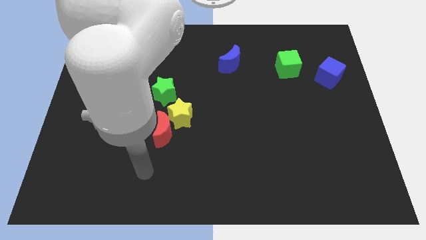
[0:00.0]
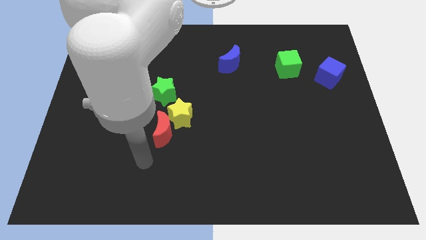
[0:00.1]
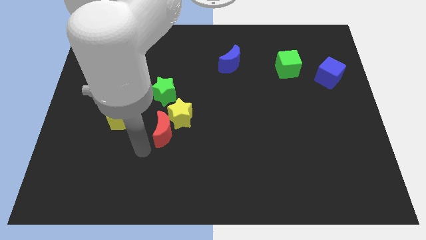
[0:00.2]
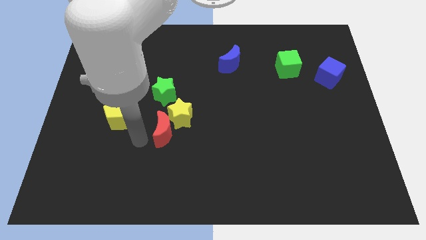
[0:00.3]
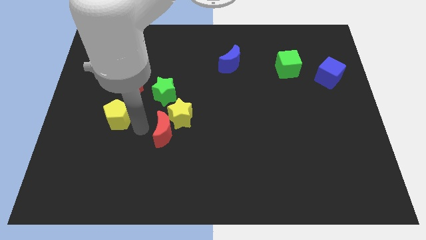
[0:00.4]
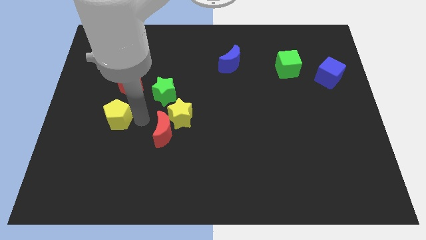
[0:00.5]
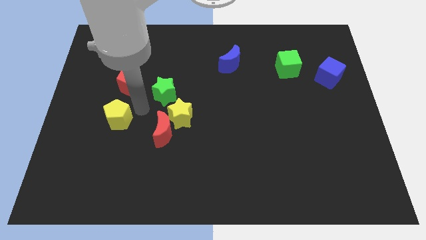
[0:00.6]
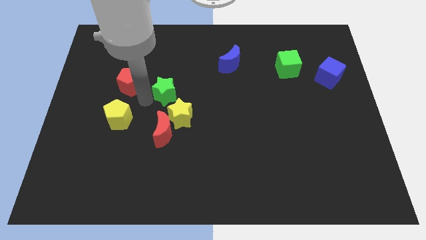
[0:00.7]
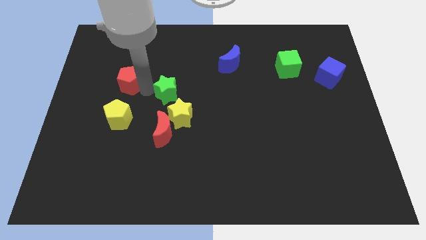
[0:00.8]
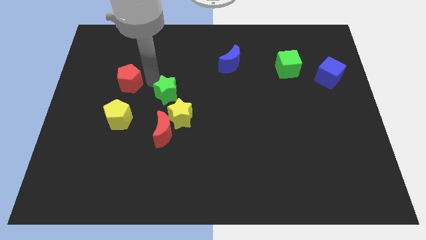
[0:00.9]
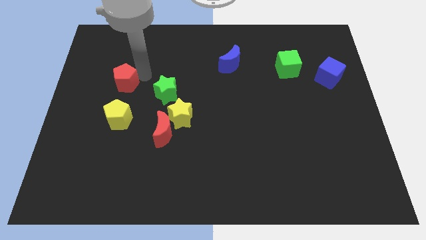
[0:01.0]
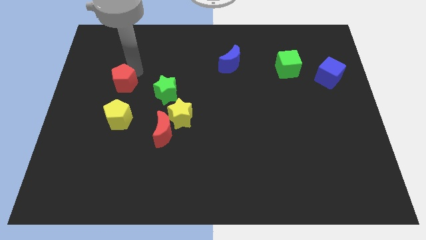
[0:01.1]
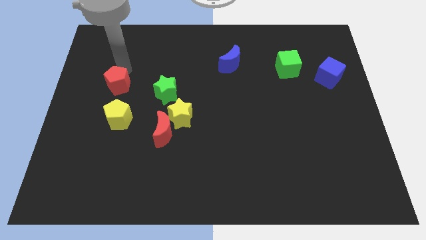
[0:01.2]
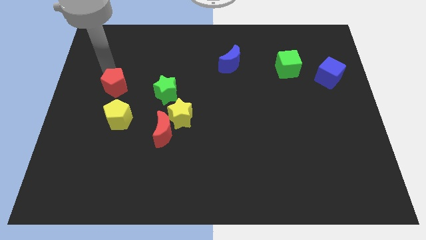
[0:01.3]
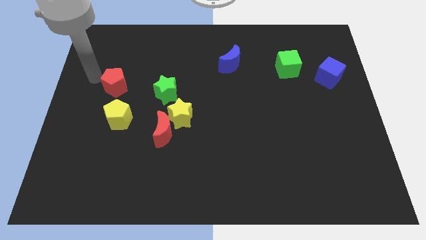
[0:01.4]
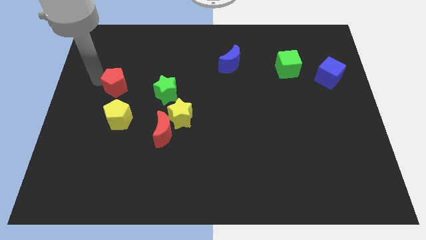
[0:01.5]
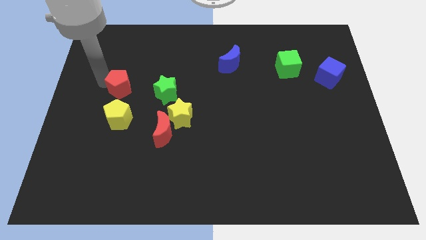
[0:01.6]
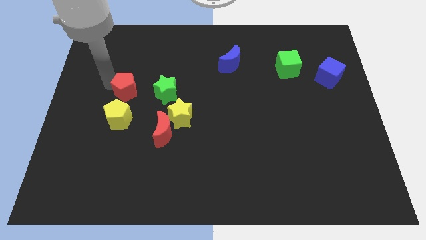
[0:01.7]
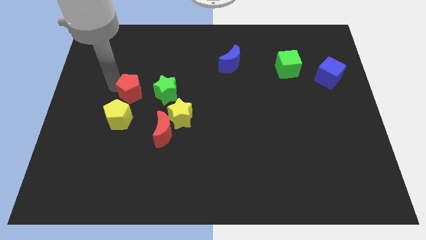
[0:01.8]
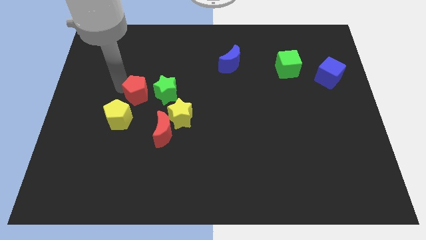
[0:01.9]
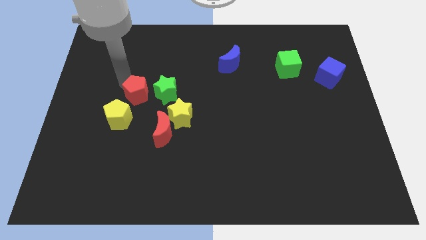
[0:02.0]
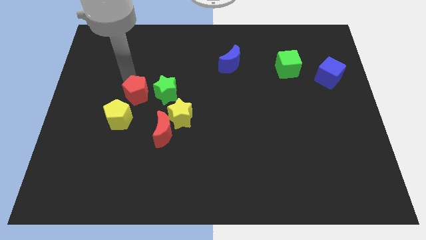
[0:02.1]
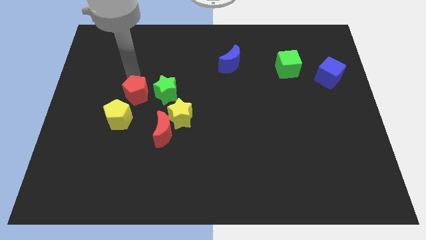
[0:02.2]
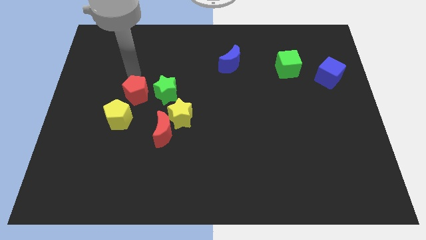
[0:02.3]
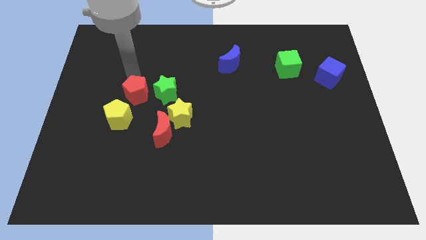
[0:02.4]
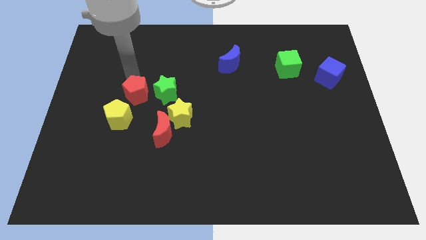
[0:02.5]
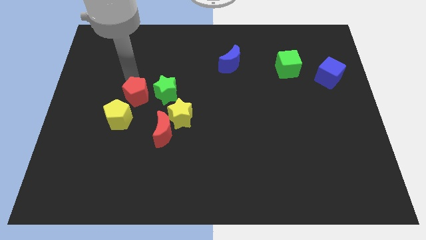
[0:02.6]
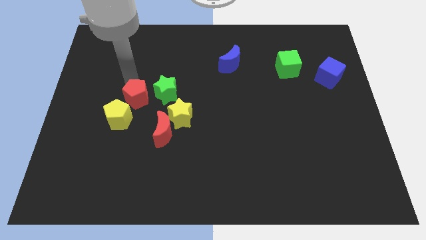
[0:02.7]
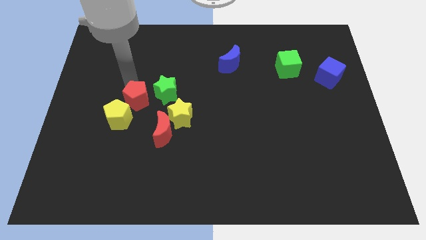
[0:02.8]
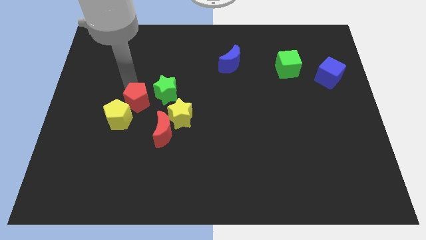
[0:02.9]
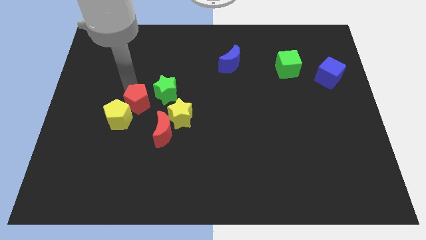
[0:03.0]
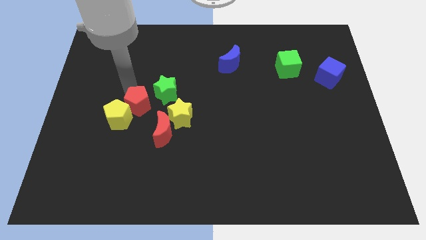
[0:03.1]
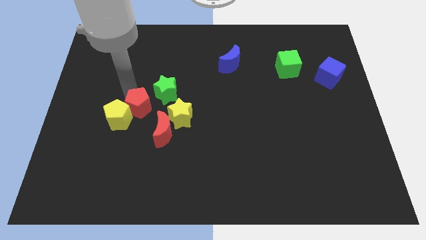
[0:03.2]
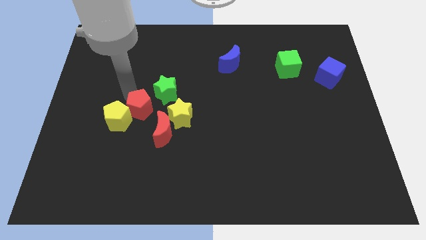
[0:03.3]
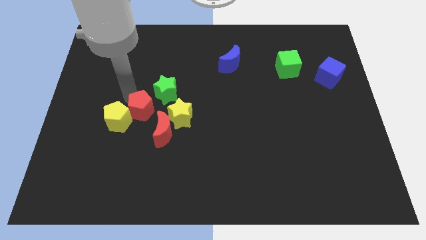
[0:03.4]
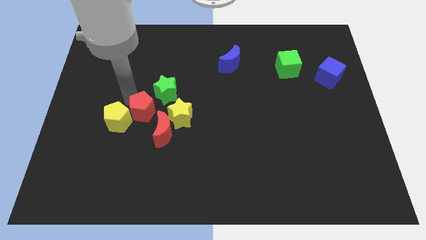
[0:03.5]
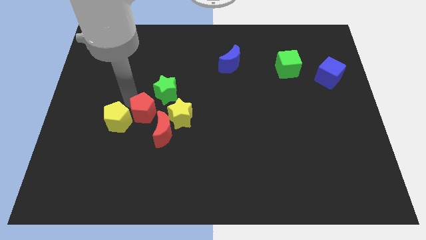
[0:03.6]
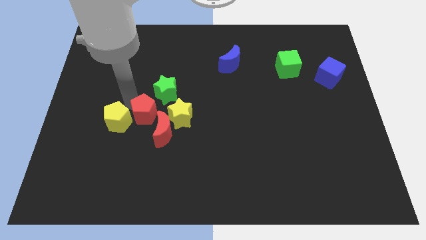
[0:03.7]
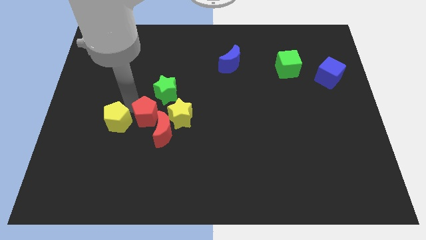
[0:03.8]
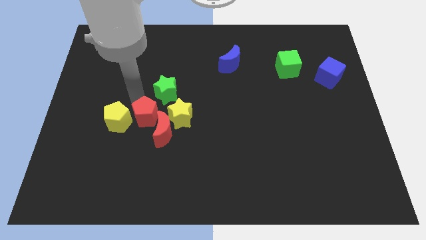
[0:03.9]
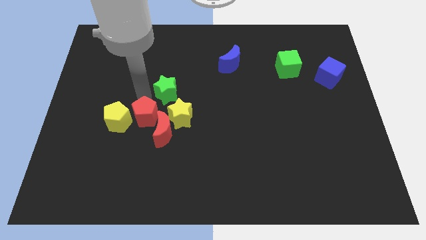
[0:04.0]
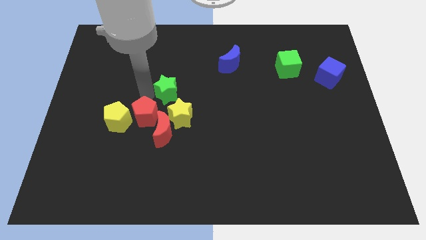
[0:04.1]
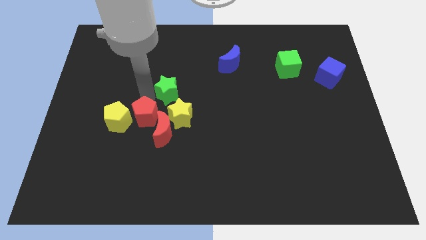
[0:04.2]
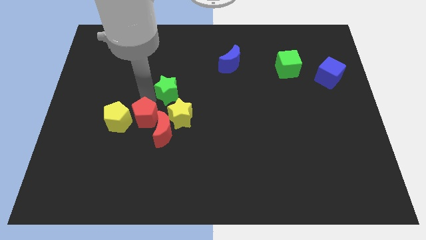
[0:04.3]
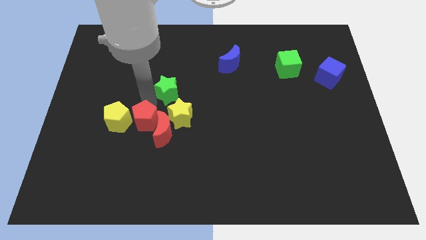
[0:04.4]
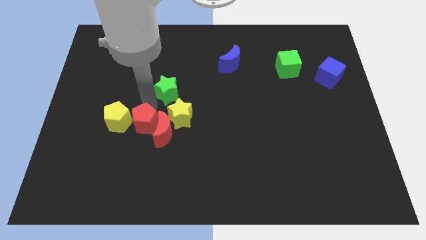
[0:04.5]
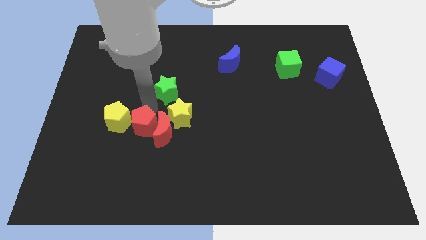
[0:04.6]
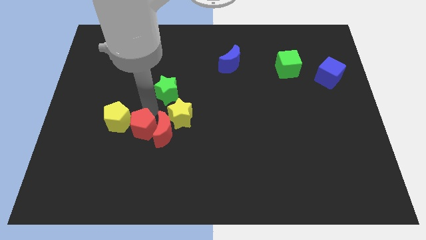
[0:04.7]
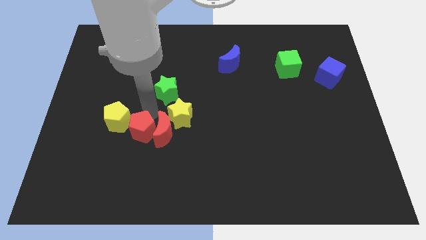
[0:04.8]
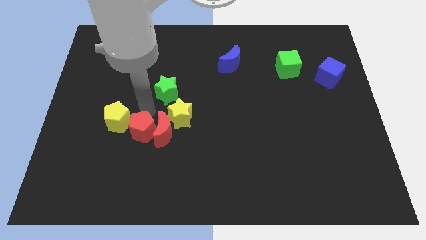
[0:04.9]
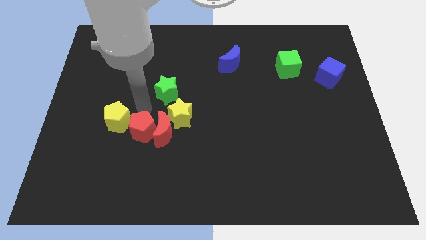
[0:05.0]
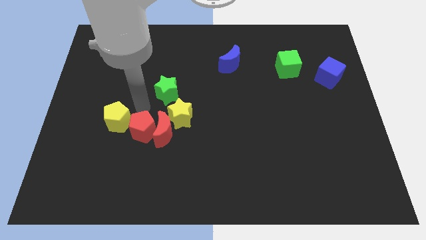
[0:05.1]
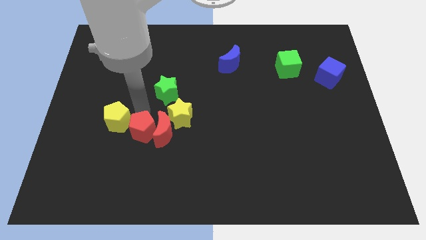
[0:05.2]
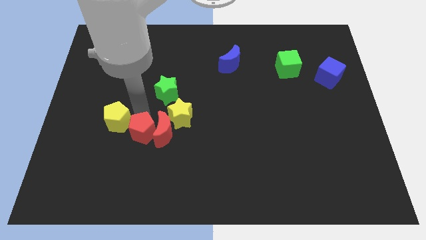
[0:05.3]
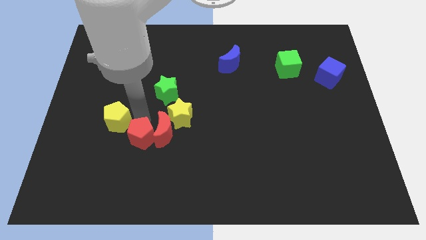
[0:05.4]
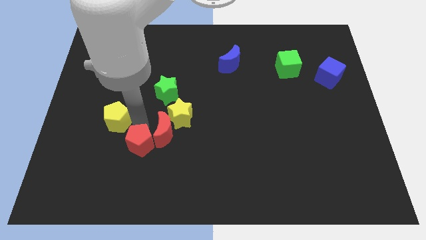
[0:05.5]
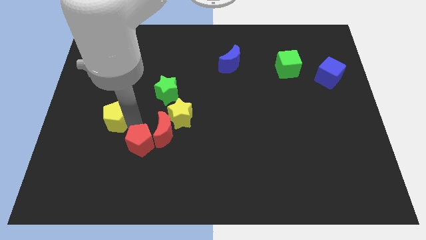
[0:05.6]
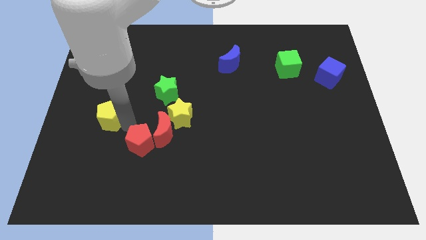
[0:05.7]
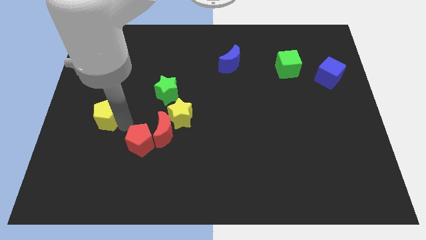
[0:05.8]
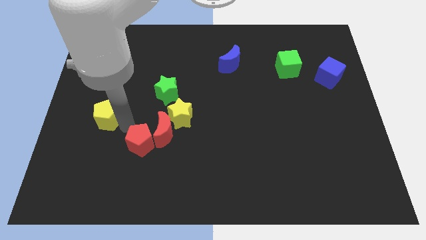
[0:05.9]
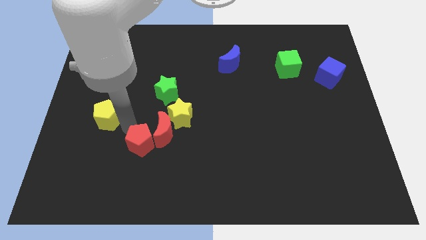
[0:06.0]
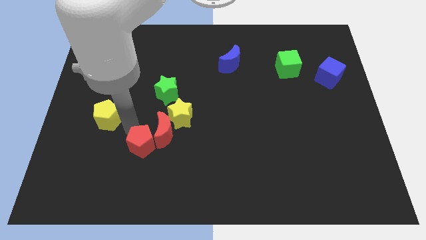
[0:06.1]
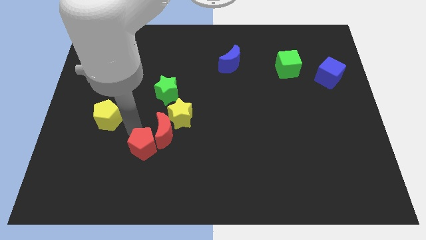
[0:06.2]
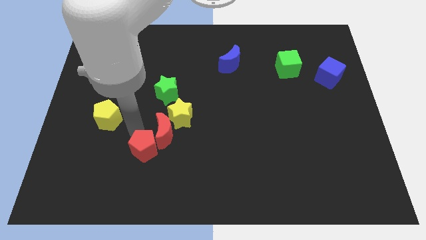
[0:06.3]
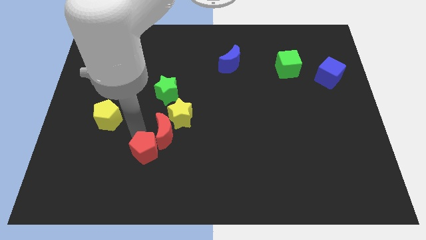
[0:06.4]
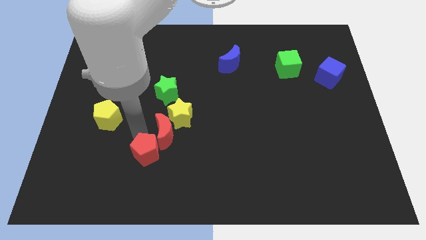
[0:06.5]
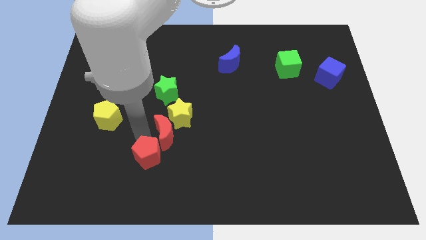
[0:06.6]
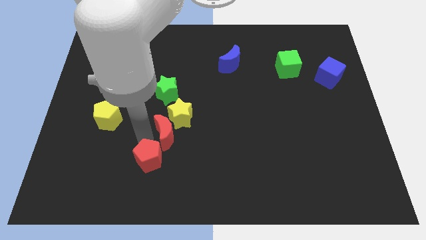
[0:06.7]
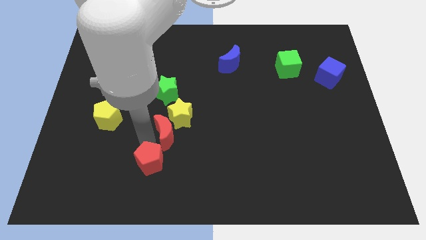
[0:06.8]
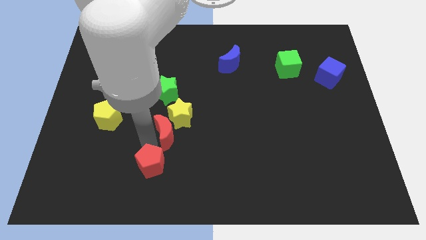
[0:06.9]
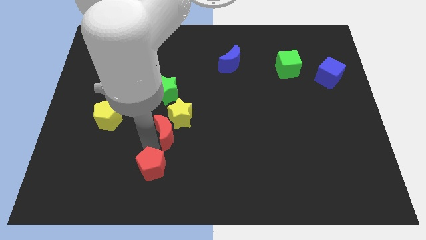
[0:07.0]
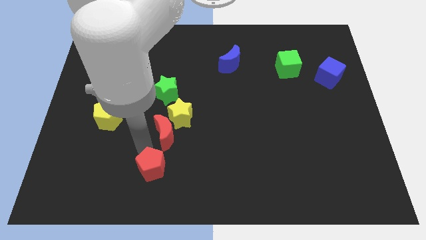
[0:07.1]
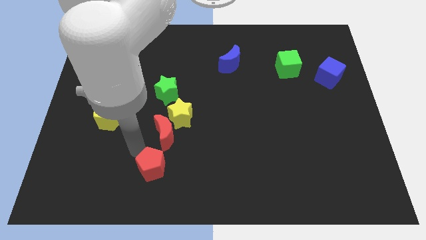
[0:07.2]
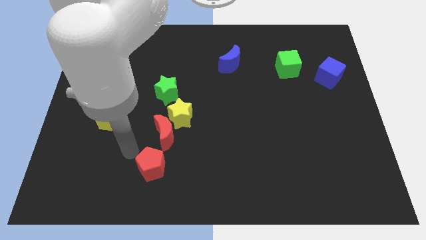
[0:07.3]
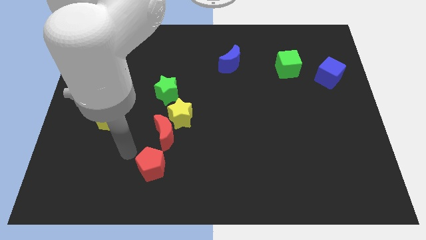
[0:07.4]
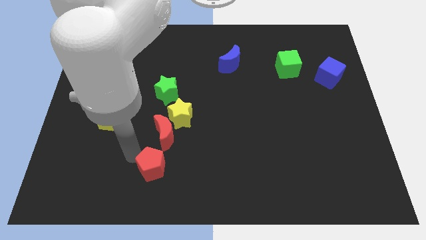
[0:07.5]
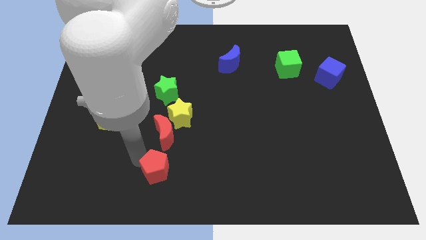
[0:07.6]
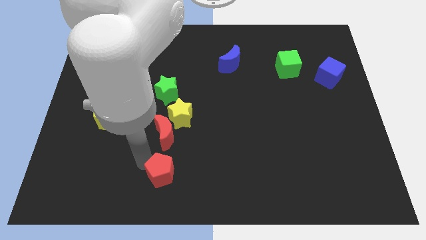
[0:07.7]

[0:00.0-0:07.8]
move the red pentagon to the bottom side
